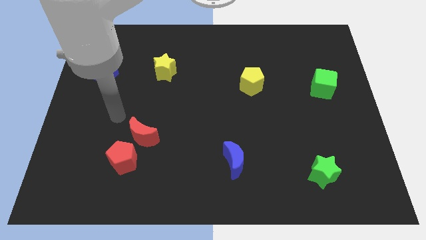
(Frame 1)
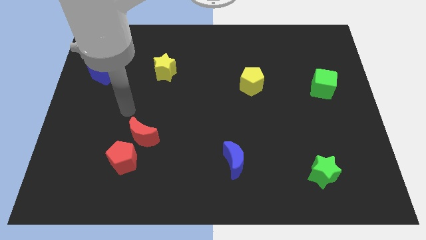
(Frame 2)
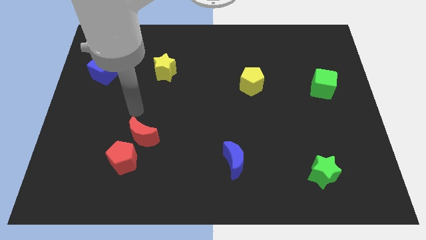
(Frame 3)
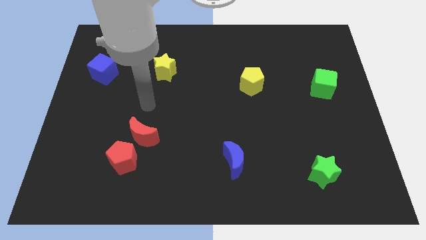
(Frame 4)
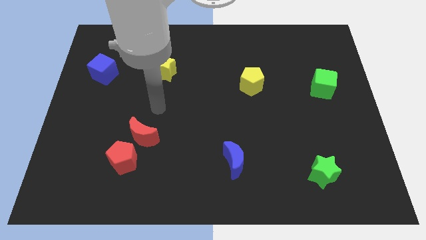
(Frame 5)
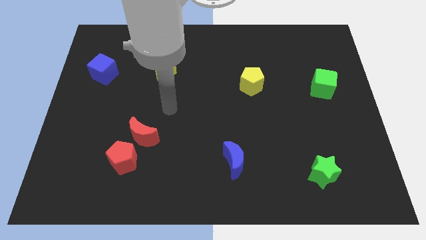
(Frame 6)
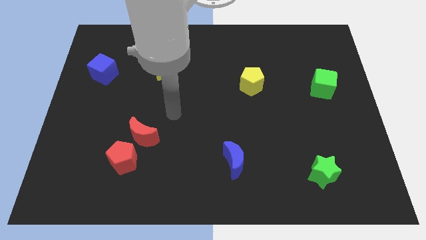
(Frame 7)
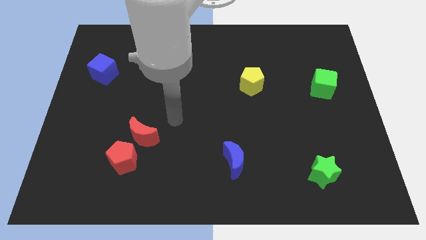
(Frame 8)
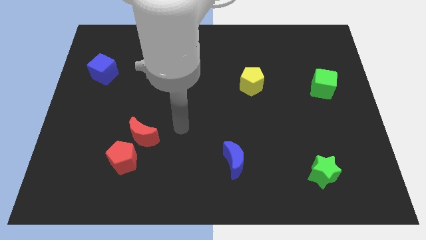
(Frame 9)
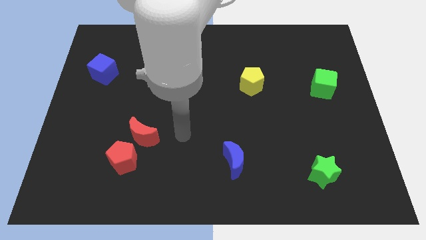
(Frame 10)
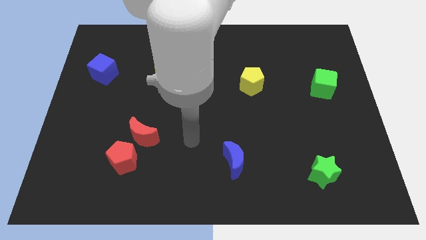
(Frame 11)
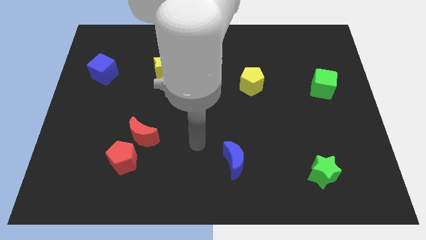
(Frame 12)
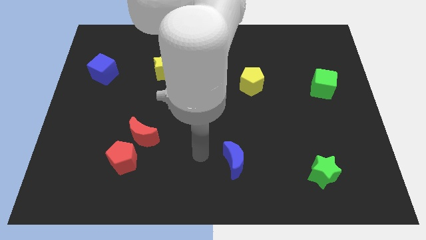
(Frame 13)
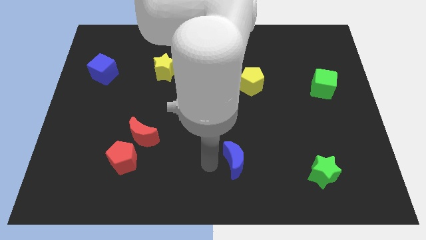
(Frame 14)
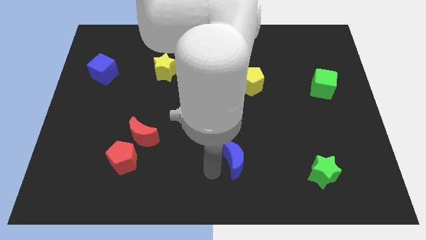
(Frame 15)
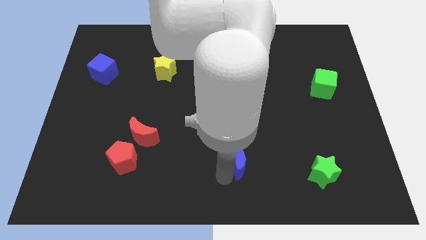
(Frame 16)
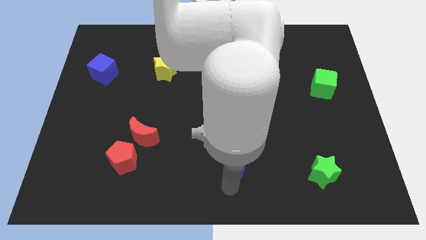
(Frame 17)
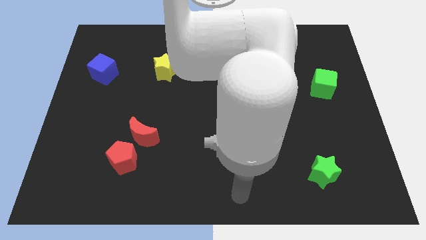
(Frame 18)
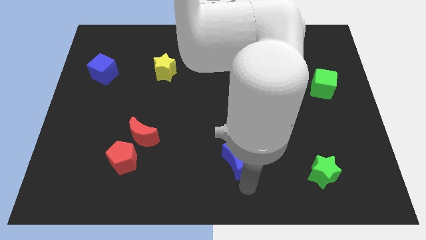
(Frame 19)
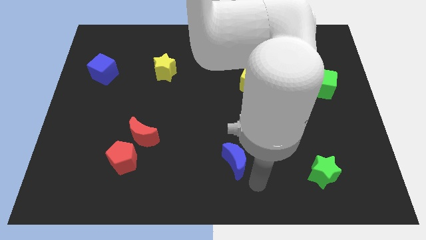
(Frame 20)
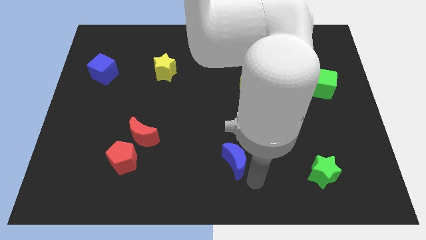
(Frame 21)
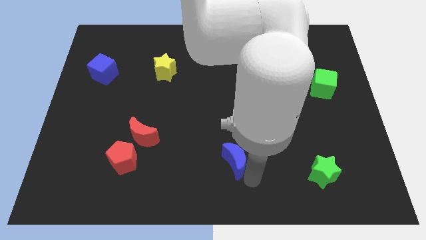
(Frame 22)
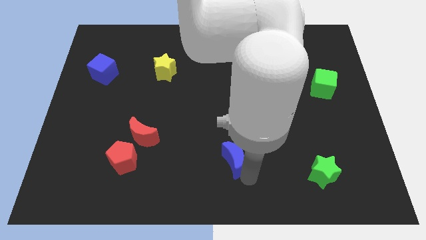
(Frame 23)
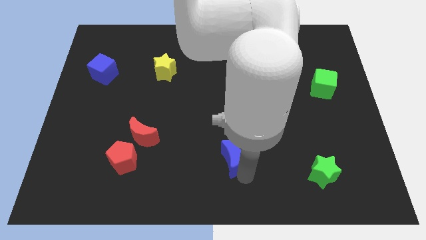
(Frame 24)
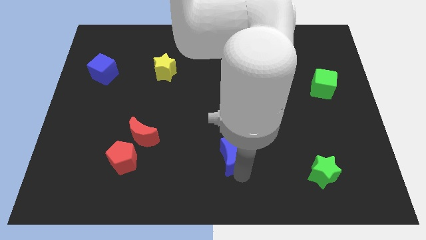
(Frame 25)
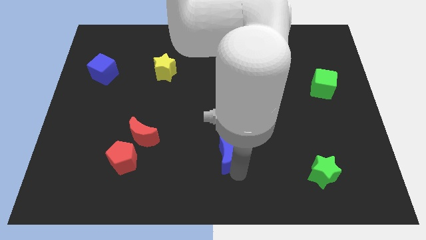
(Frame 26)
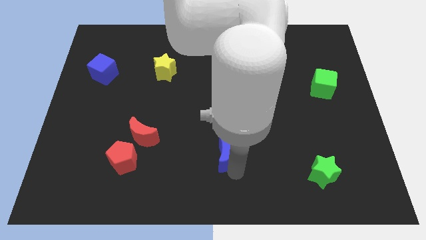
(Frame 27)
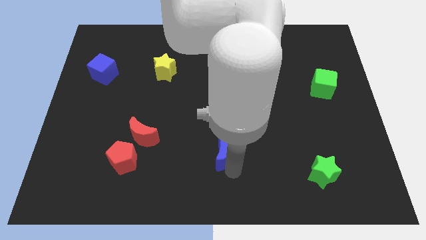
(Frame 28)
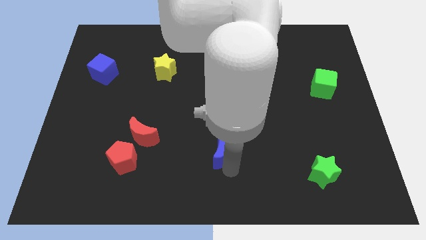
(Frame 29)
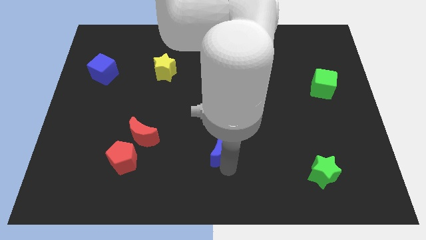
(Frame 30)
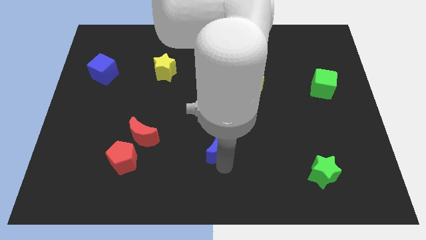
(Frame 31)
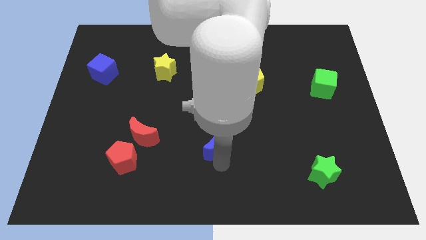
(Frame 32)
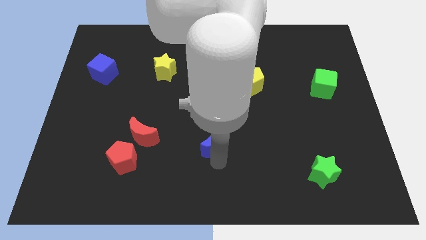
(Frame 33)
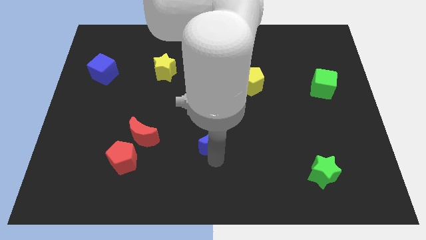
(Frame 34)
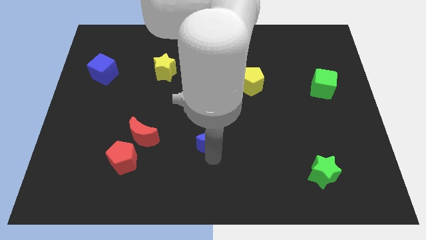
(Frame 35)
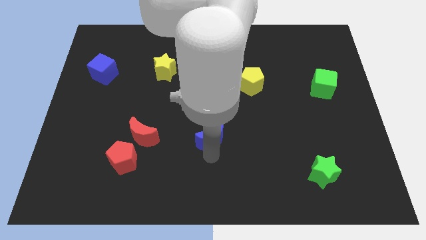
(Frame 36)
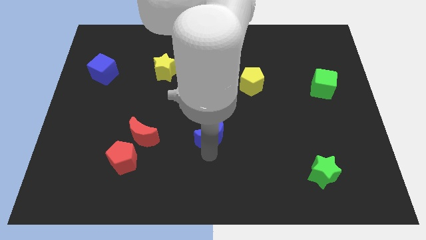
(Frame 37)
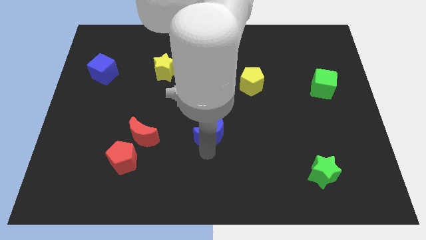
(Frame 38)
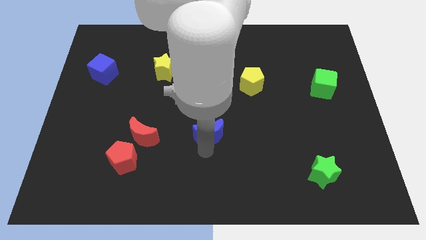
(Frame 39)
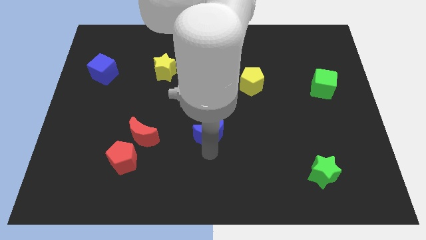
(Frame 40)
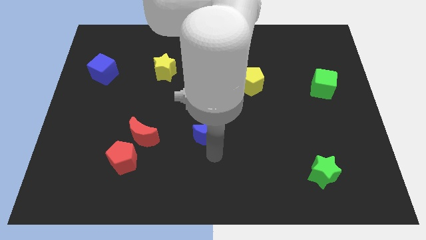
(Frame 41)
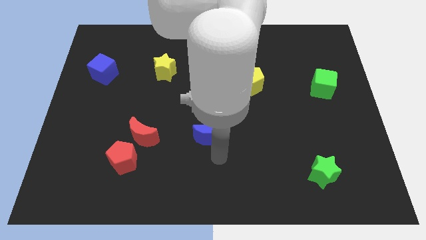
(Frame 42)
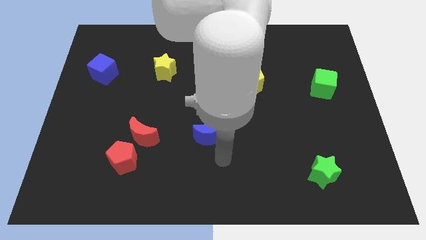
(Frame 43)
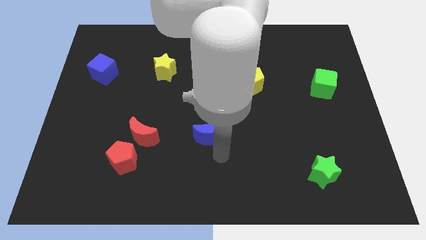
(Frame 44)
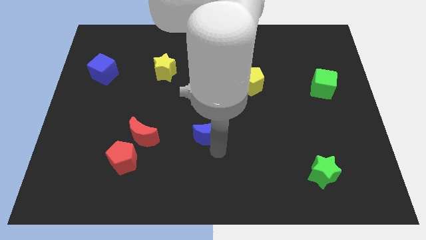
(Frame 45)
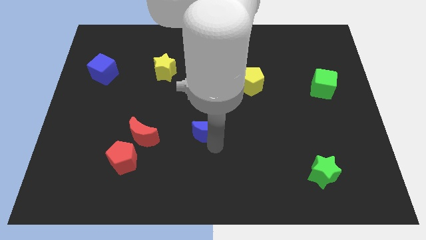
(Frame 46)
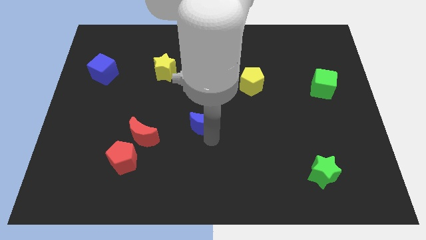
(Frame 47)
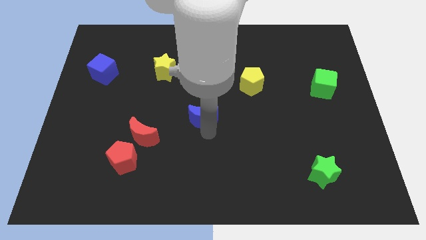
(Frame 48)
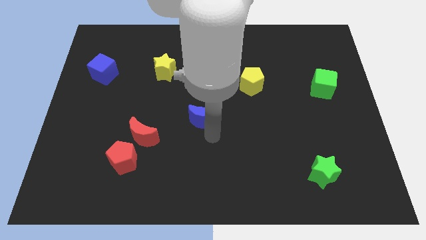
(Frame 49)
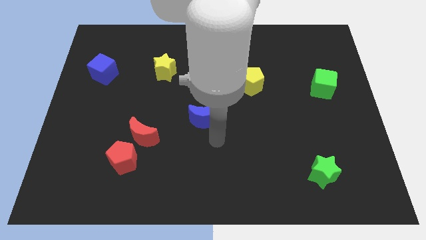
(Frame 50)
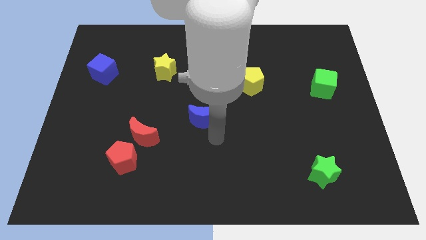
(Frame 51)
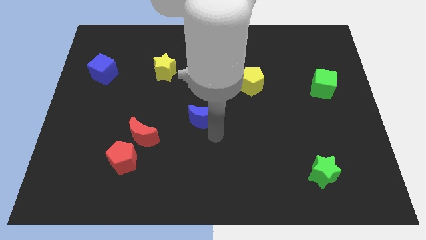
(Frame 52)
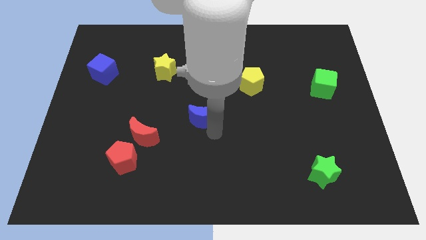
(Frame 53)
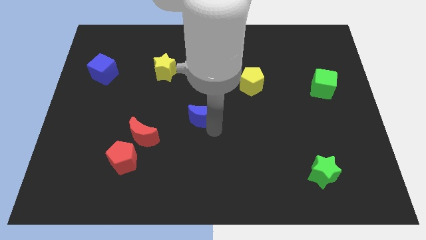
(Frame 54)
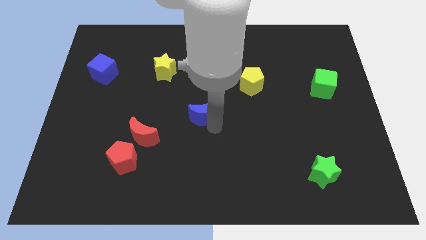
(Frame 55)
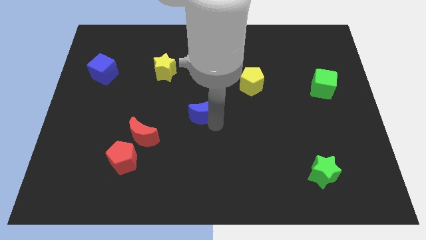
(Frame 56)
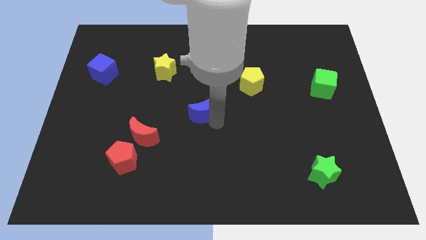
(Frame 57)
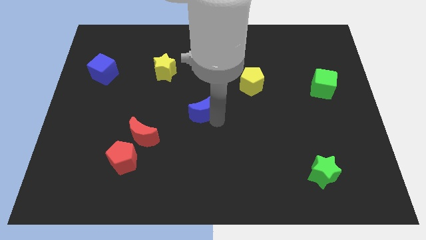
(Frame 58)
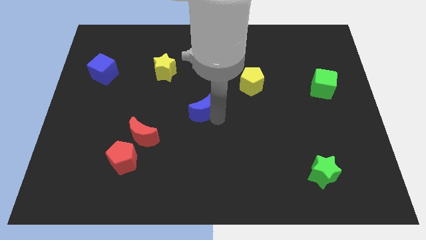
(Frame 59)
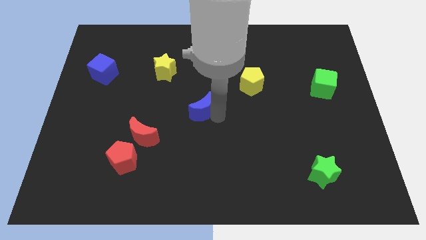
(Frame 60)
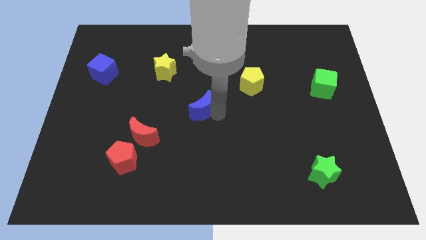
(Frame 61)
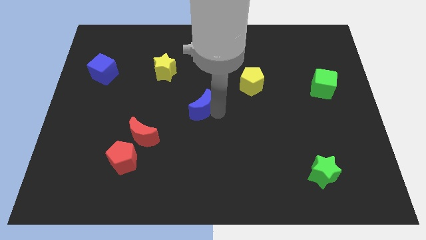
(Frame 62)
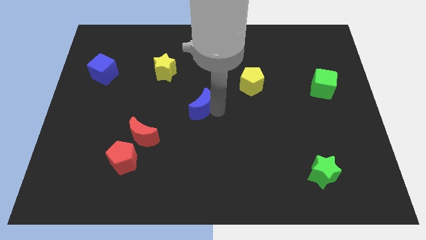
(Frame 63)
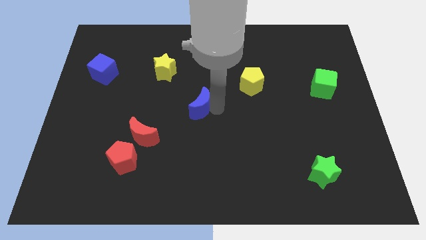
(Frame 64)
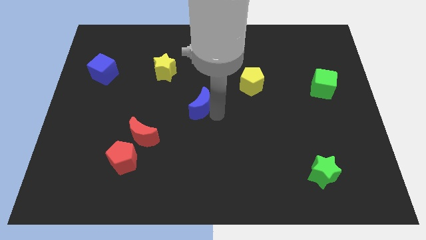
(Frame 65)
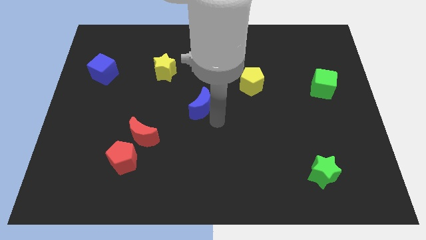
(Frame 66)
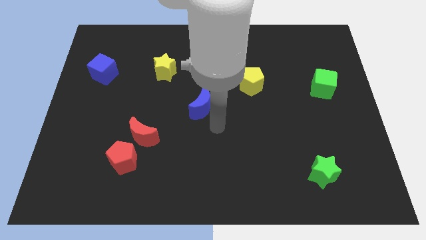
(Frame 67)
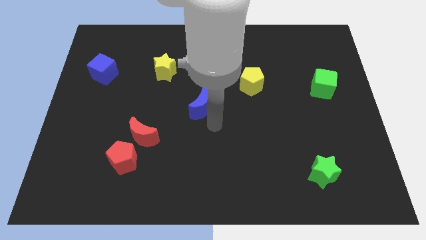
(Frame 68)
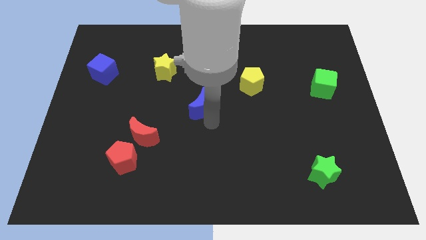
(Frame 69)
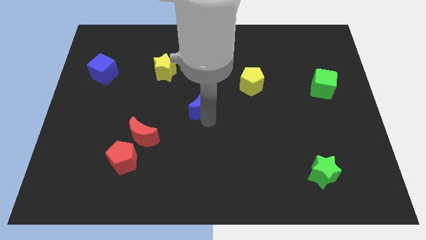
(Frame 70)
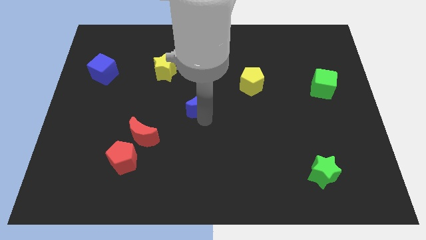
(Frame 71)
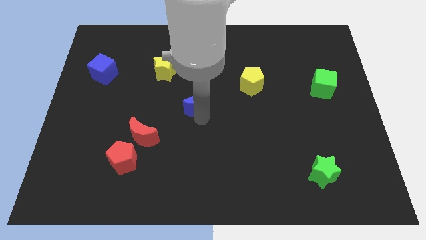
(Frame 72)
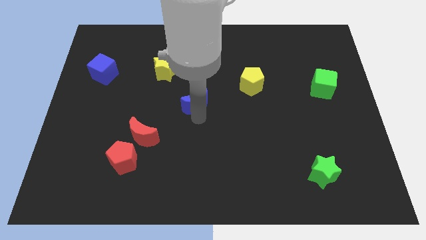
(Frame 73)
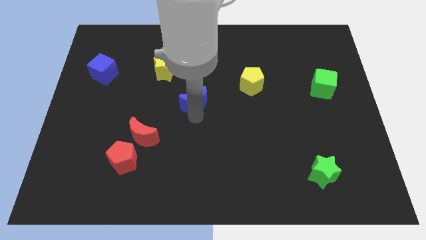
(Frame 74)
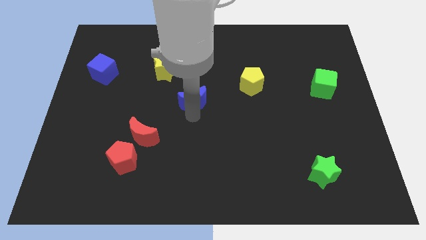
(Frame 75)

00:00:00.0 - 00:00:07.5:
move the blue moon diagonally down and to the right of the yellow star
